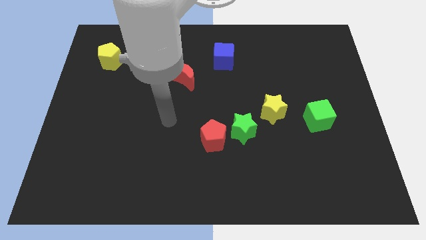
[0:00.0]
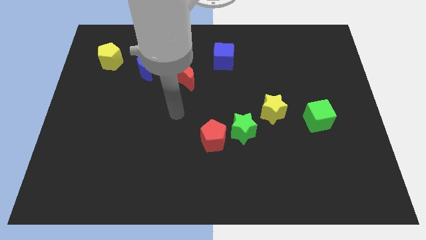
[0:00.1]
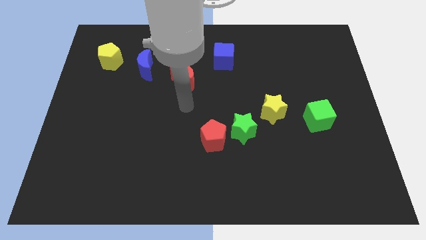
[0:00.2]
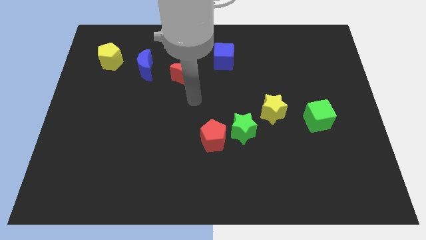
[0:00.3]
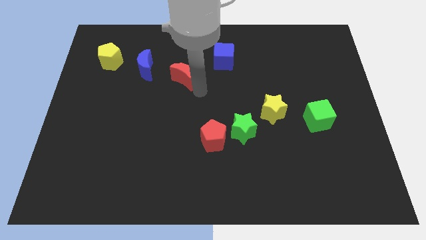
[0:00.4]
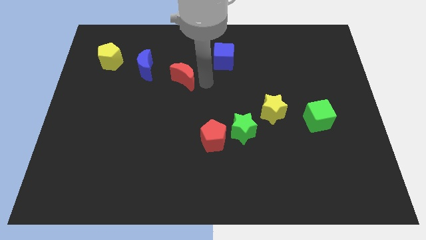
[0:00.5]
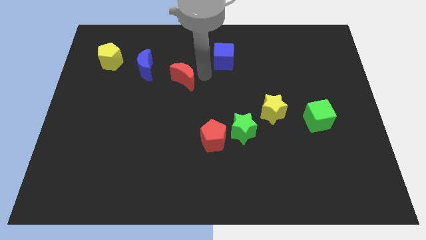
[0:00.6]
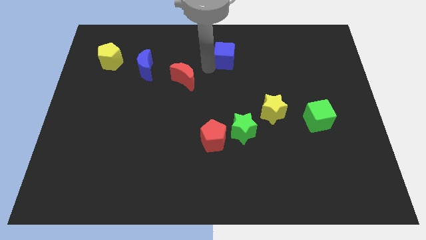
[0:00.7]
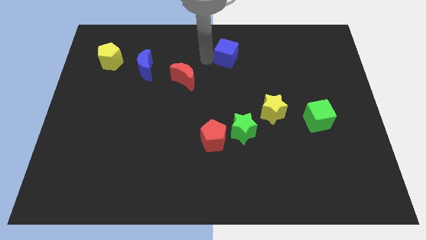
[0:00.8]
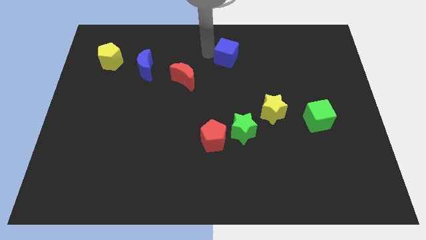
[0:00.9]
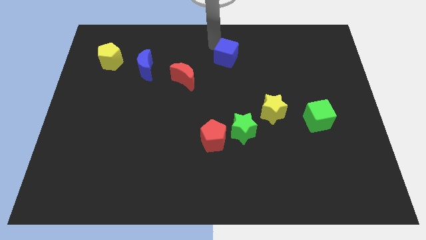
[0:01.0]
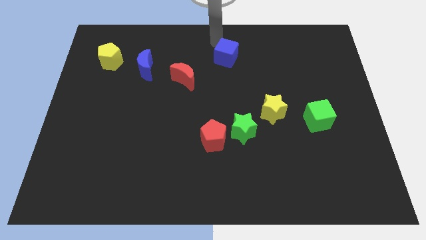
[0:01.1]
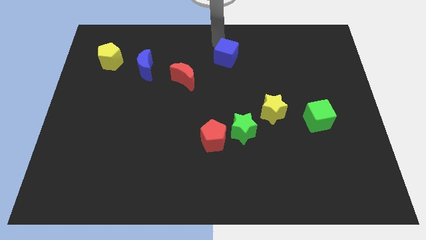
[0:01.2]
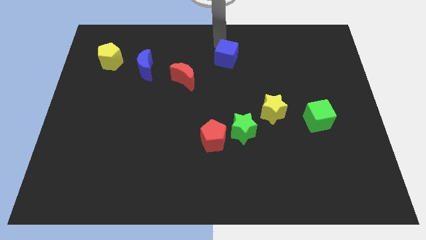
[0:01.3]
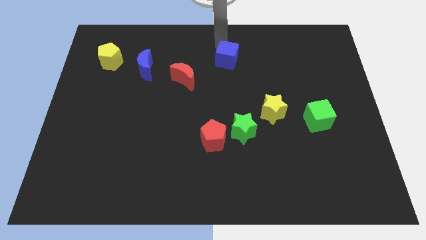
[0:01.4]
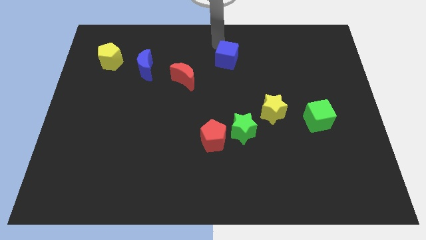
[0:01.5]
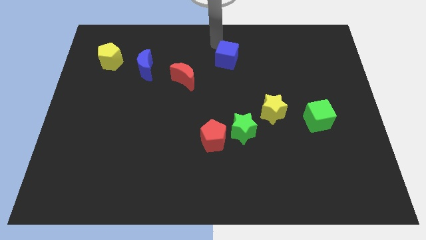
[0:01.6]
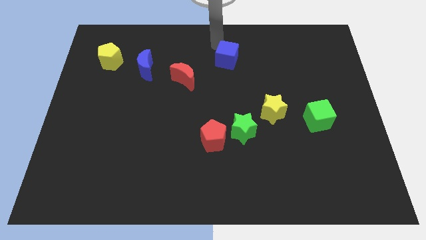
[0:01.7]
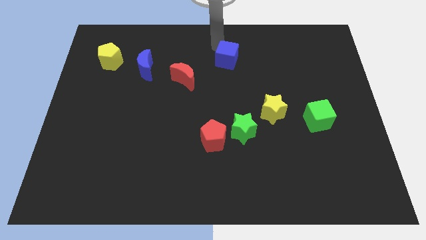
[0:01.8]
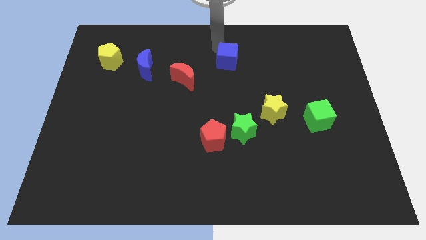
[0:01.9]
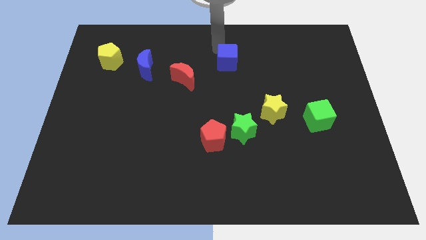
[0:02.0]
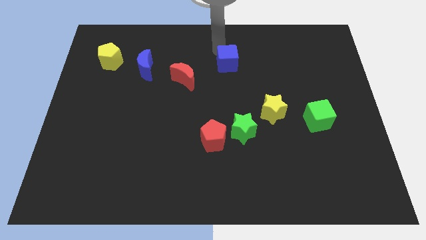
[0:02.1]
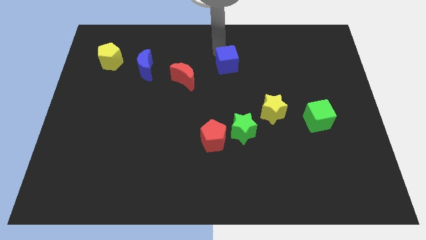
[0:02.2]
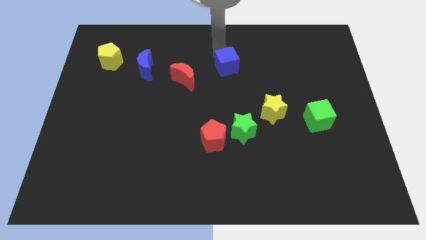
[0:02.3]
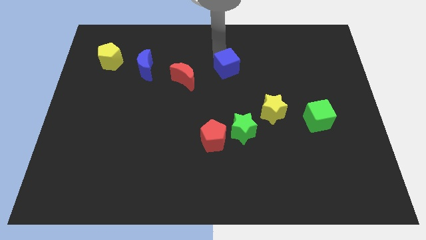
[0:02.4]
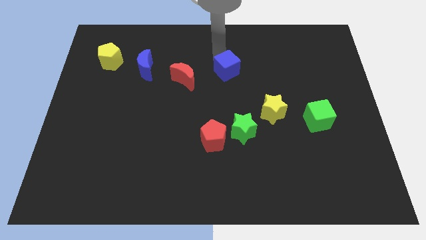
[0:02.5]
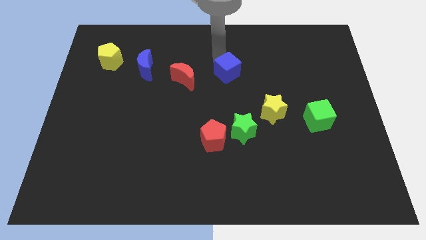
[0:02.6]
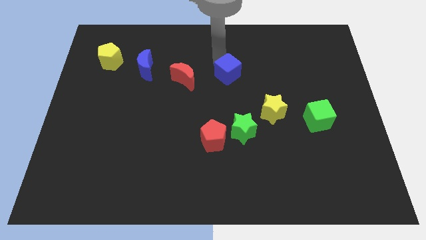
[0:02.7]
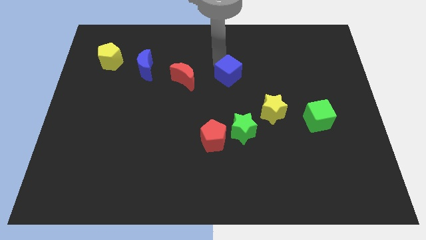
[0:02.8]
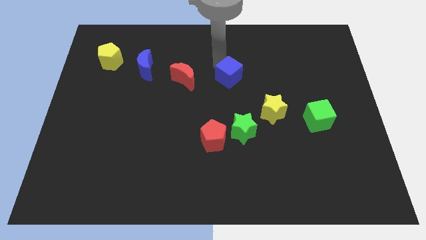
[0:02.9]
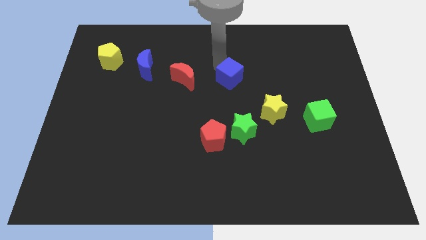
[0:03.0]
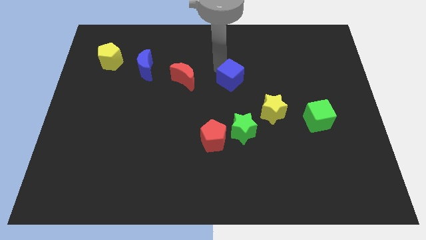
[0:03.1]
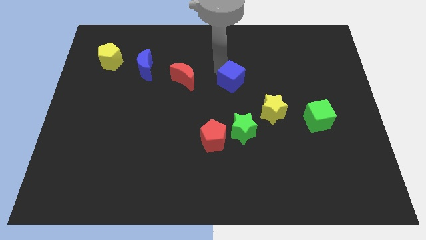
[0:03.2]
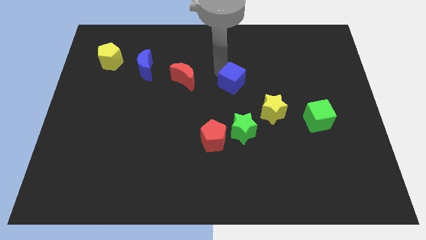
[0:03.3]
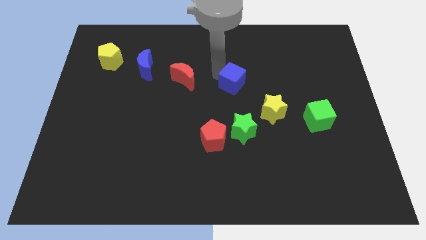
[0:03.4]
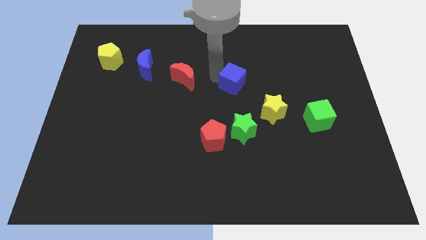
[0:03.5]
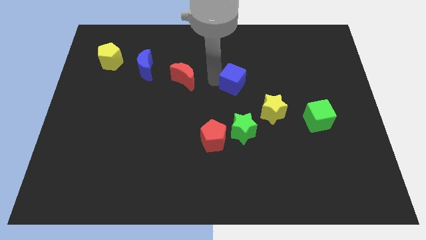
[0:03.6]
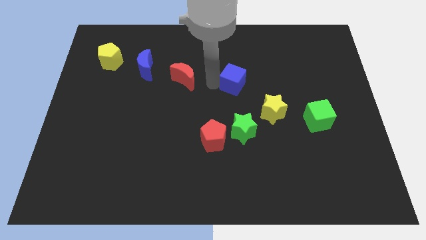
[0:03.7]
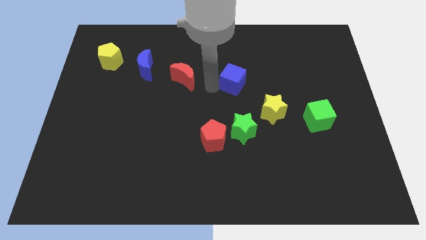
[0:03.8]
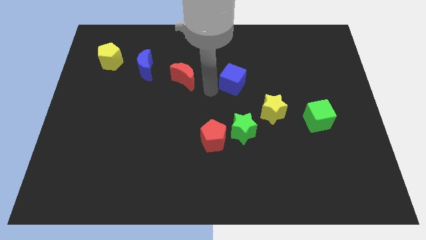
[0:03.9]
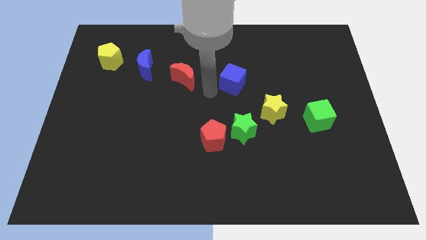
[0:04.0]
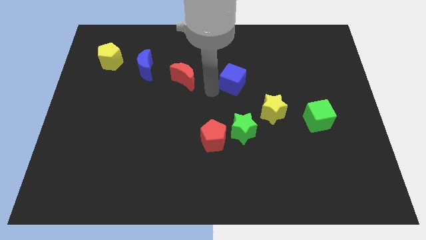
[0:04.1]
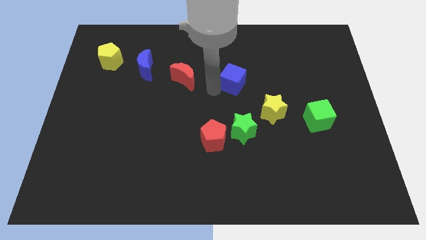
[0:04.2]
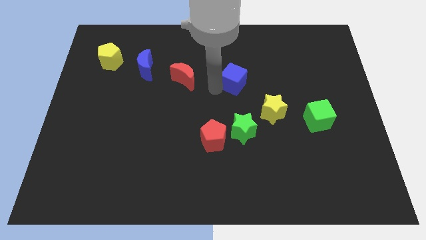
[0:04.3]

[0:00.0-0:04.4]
slightly slide the blue cube downwards and then to the right

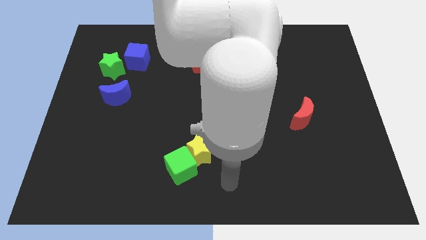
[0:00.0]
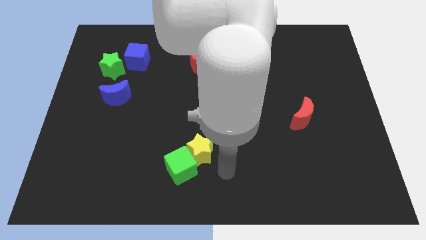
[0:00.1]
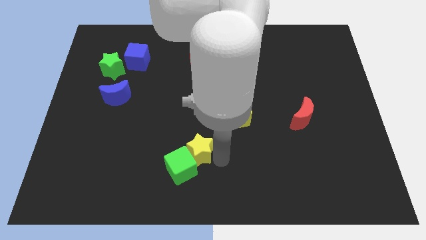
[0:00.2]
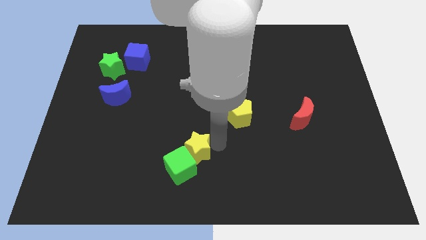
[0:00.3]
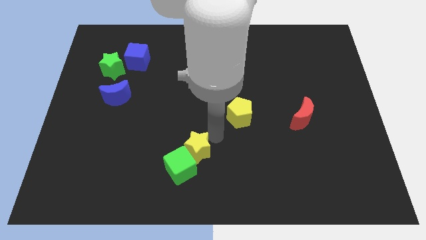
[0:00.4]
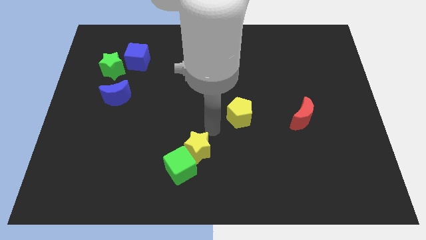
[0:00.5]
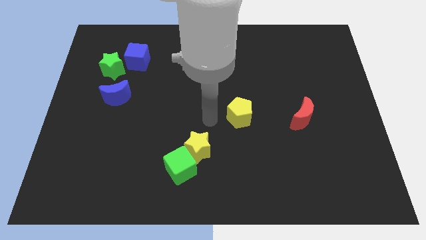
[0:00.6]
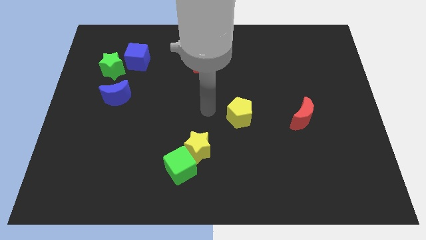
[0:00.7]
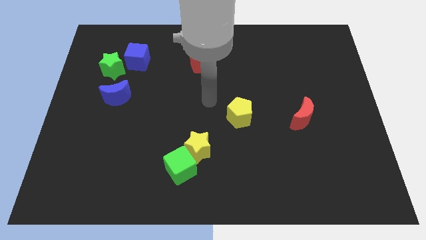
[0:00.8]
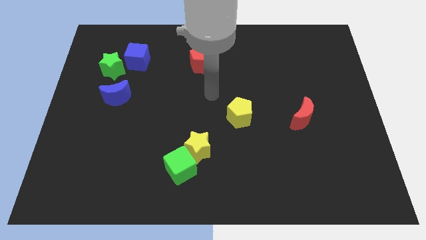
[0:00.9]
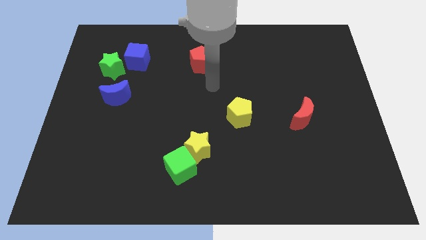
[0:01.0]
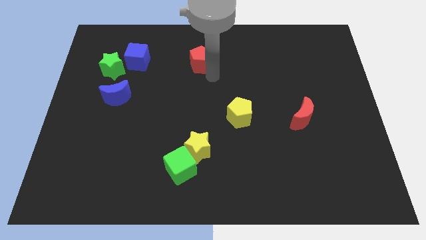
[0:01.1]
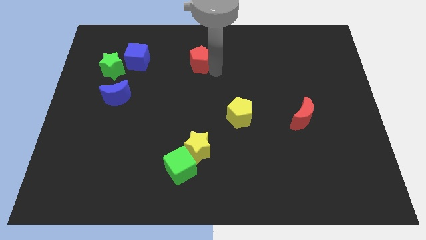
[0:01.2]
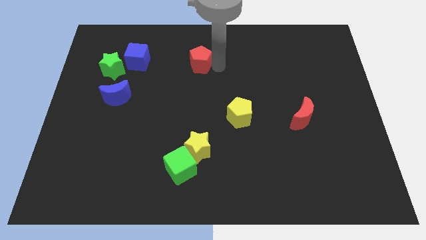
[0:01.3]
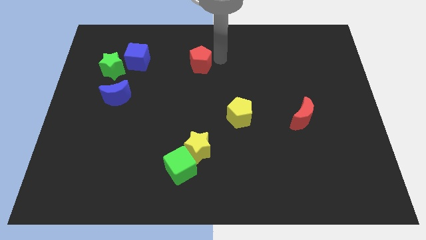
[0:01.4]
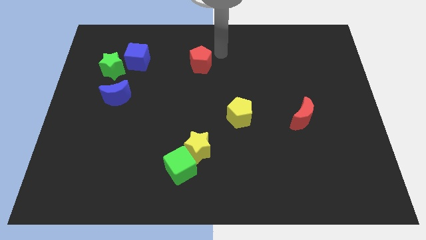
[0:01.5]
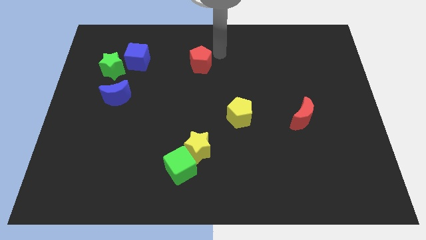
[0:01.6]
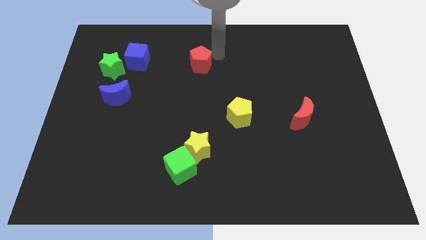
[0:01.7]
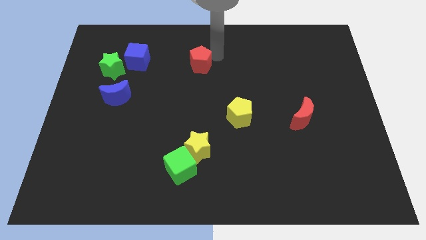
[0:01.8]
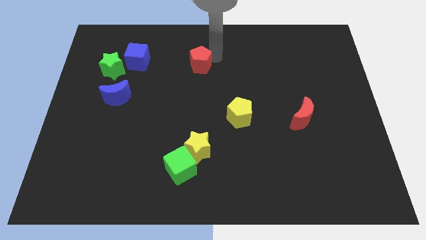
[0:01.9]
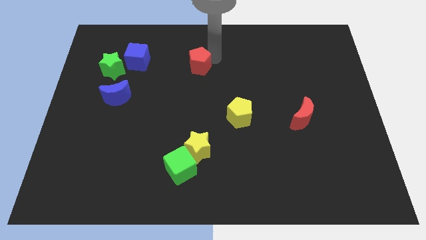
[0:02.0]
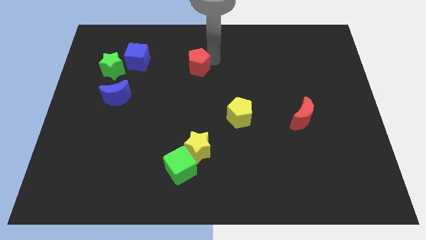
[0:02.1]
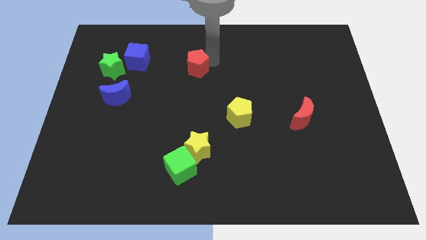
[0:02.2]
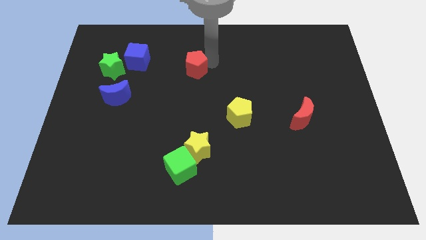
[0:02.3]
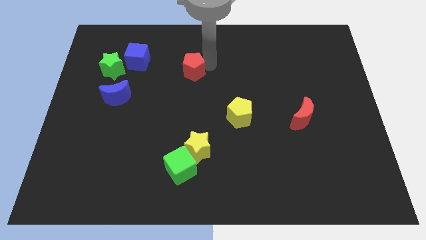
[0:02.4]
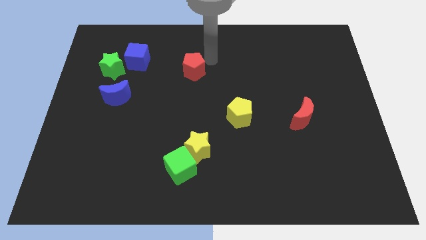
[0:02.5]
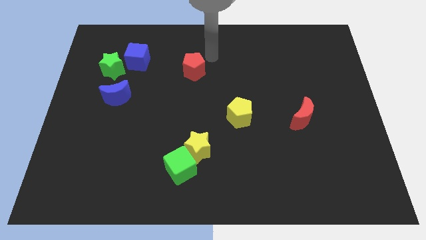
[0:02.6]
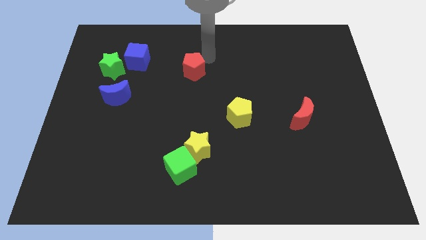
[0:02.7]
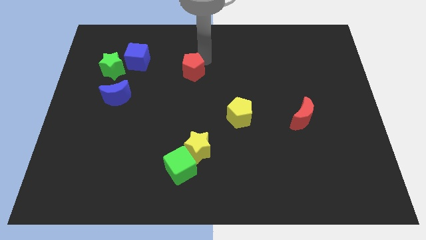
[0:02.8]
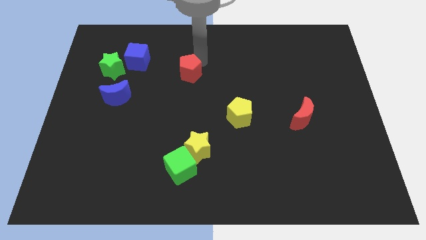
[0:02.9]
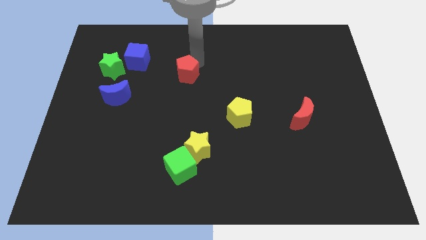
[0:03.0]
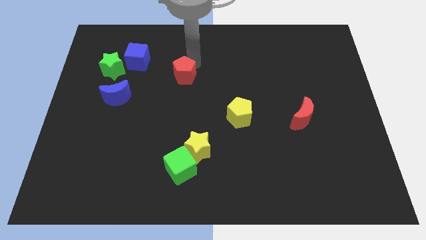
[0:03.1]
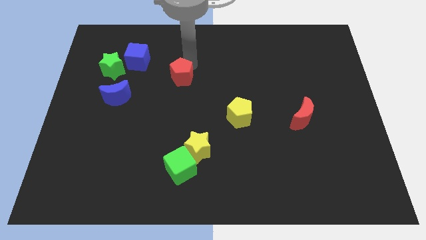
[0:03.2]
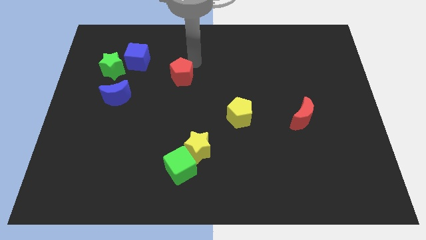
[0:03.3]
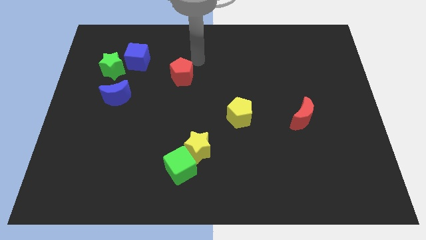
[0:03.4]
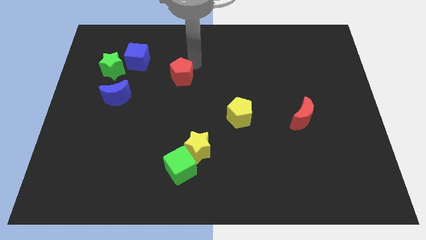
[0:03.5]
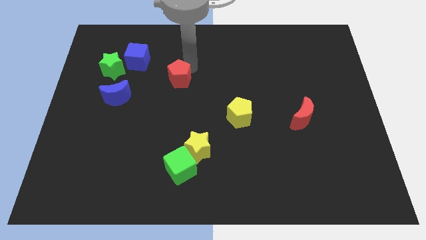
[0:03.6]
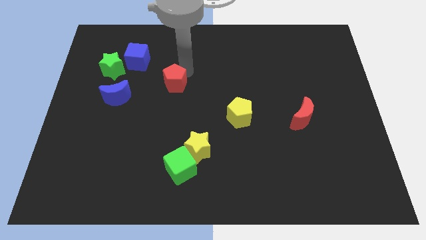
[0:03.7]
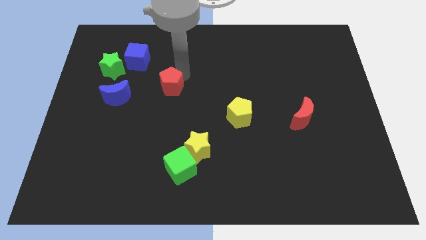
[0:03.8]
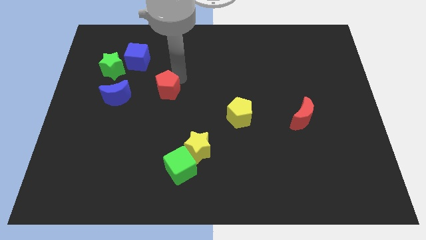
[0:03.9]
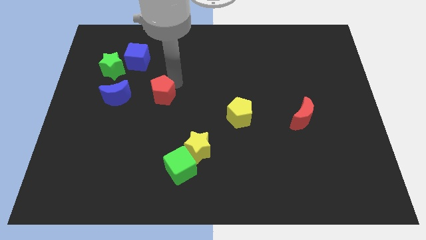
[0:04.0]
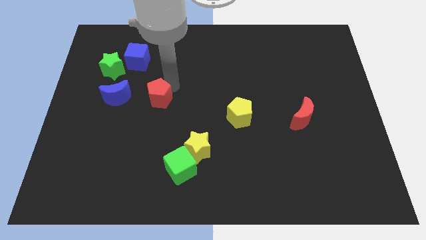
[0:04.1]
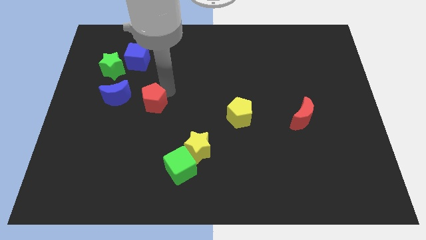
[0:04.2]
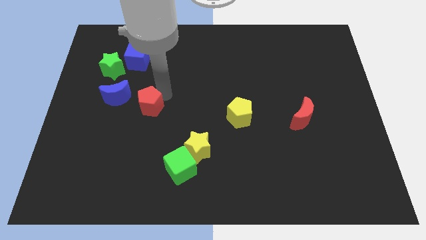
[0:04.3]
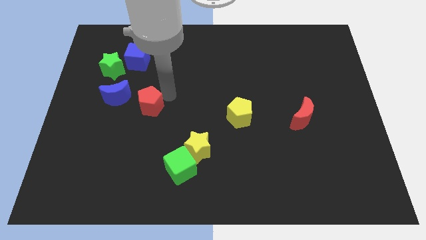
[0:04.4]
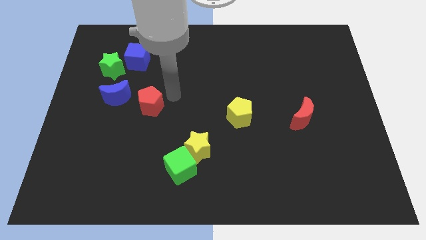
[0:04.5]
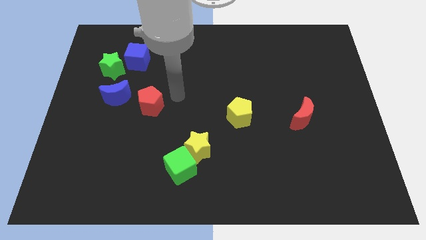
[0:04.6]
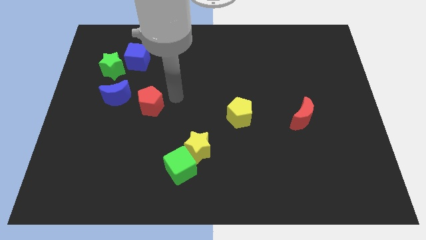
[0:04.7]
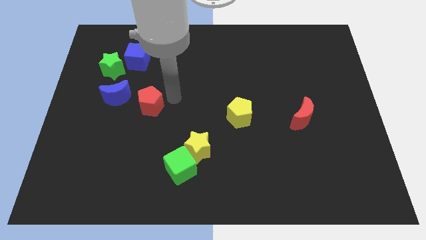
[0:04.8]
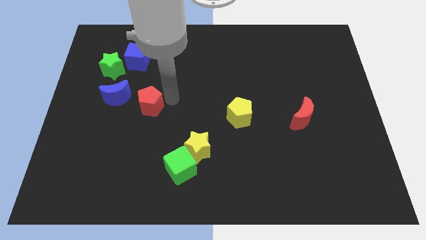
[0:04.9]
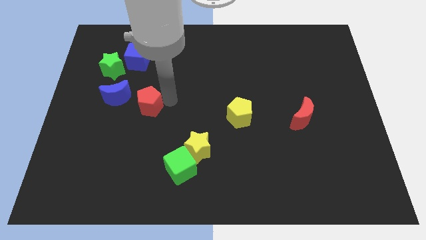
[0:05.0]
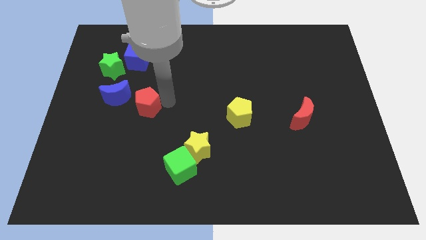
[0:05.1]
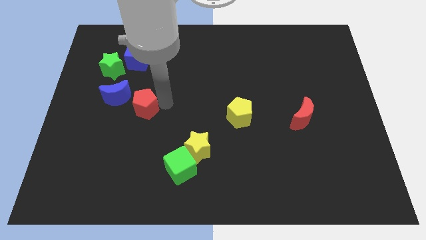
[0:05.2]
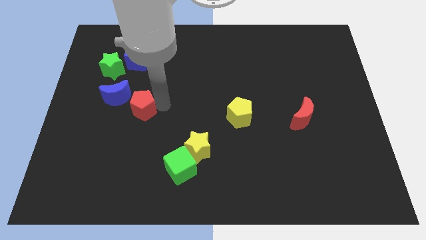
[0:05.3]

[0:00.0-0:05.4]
push the red pentagon downwards and left
